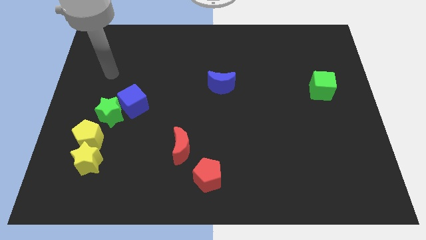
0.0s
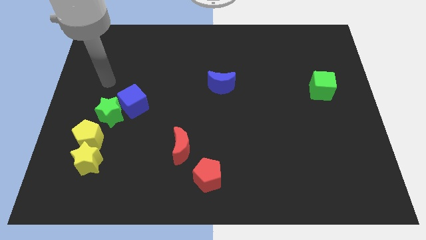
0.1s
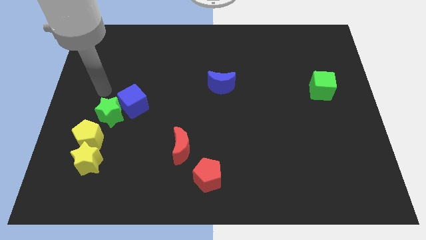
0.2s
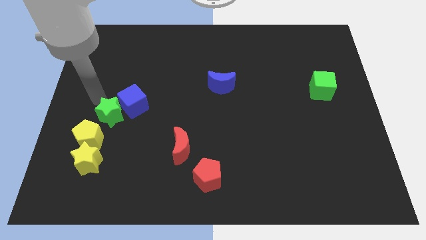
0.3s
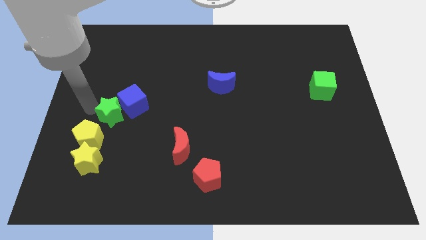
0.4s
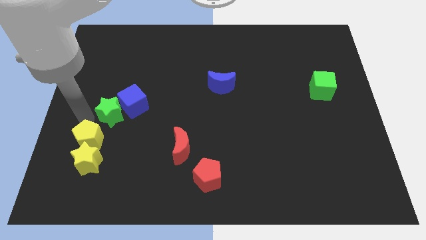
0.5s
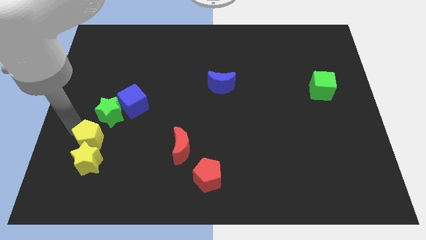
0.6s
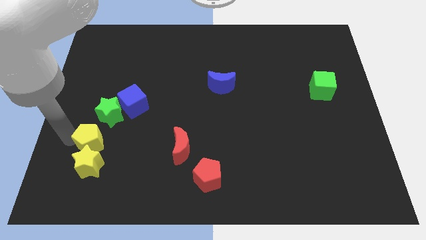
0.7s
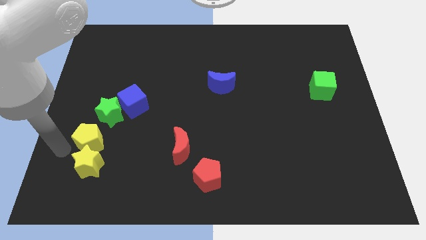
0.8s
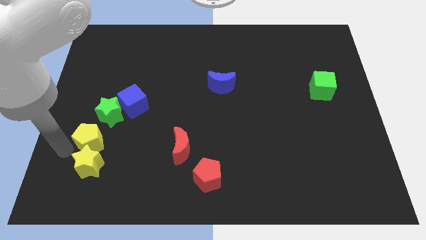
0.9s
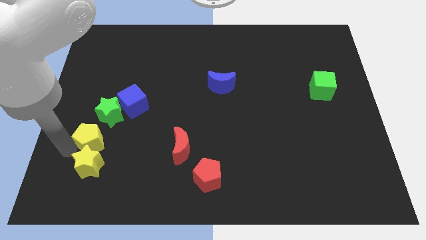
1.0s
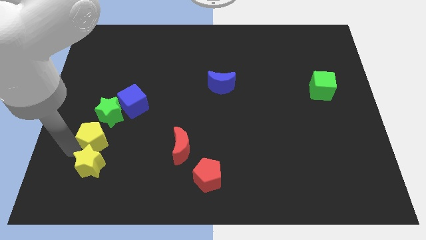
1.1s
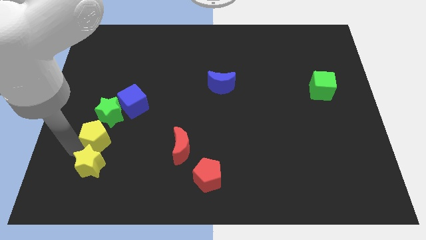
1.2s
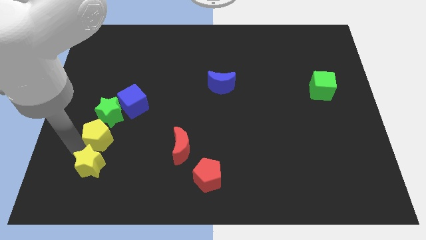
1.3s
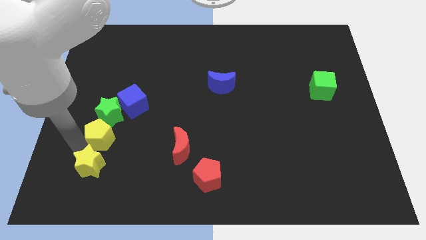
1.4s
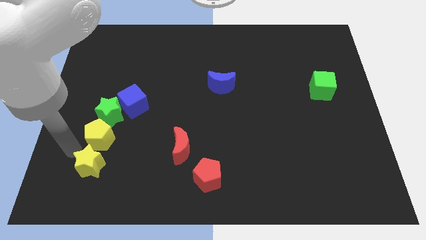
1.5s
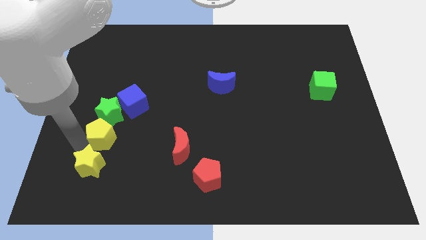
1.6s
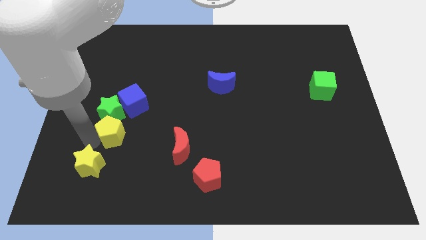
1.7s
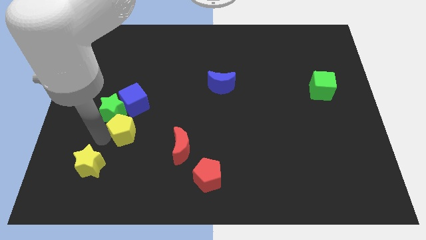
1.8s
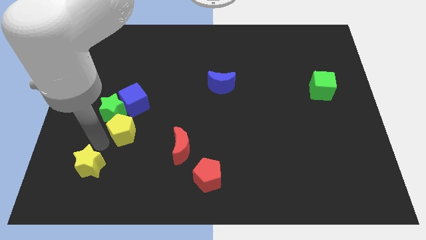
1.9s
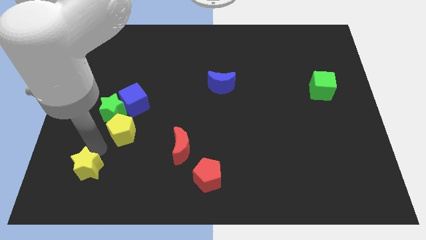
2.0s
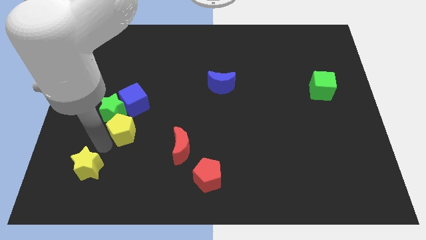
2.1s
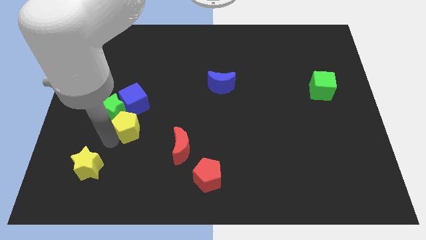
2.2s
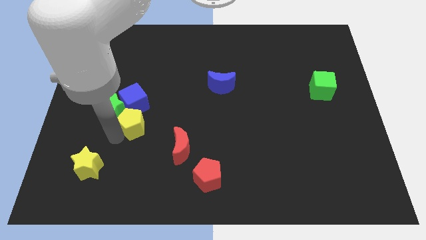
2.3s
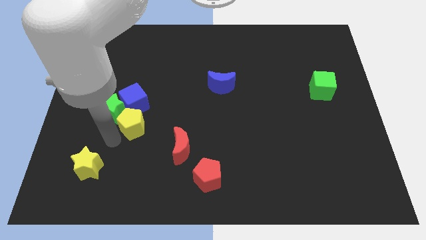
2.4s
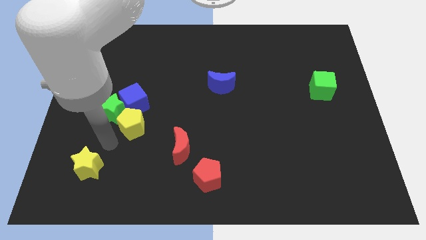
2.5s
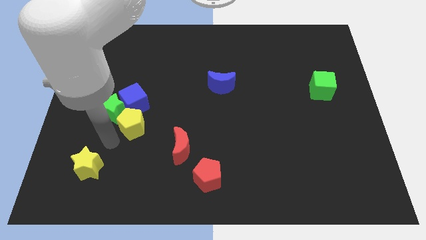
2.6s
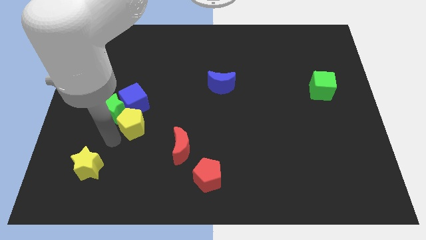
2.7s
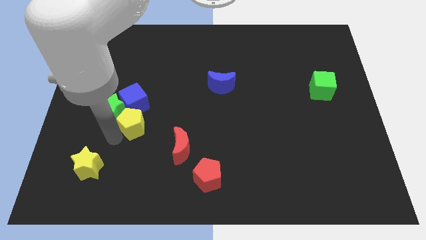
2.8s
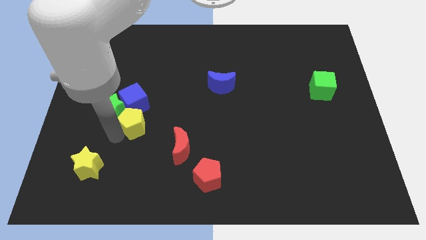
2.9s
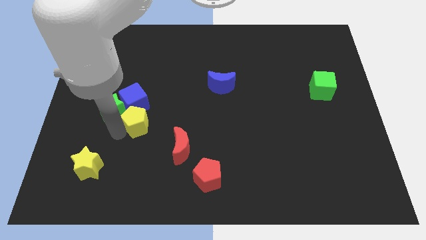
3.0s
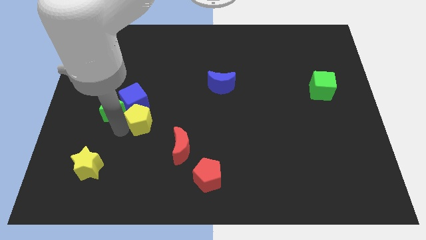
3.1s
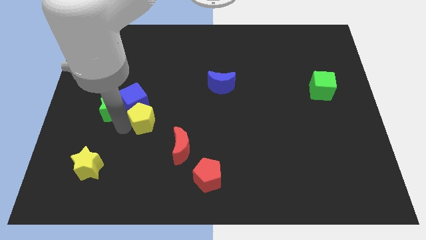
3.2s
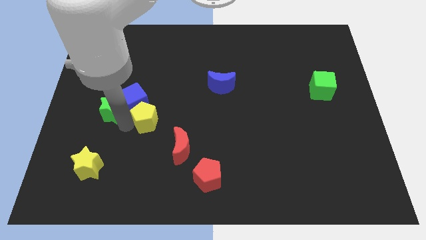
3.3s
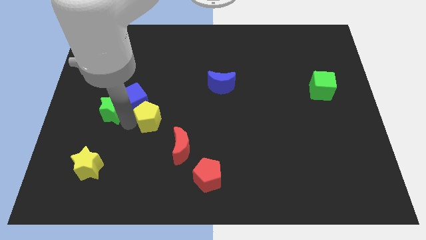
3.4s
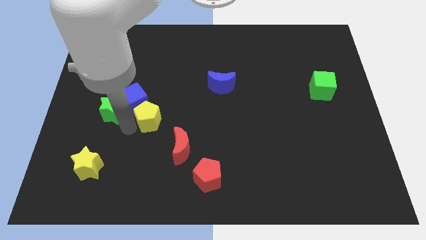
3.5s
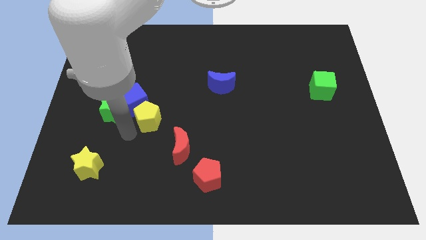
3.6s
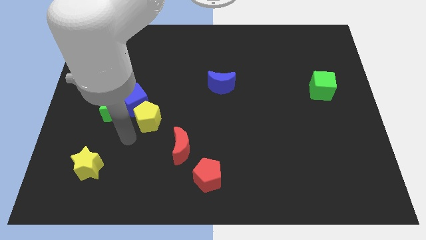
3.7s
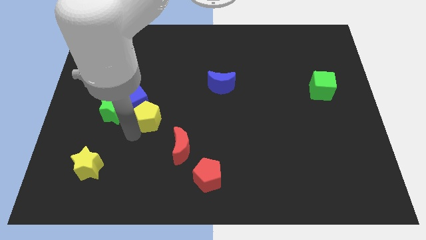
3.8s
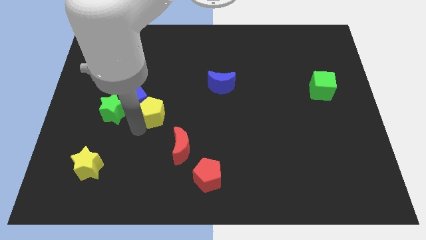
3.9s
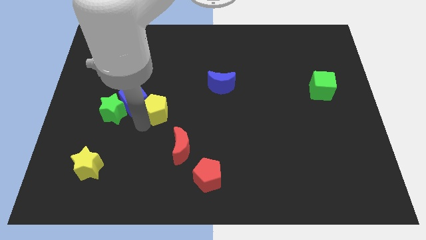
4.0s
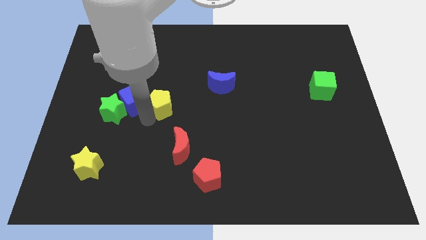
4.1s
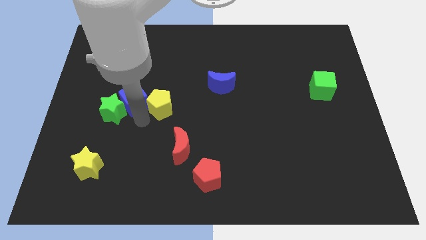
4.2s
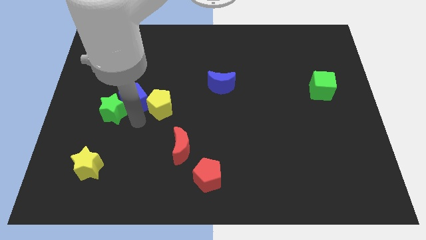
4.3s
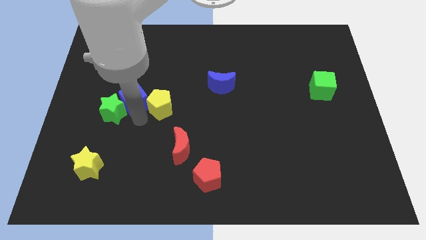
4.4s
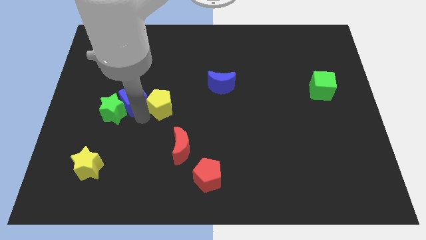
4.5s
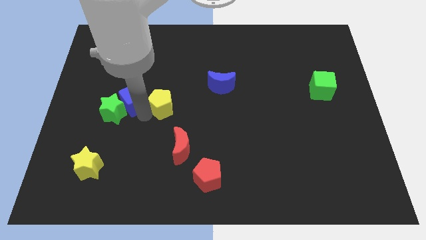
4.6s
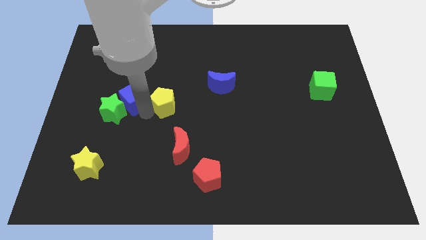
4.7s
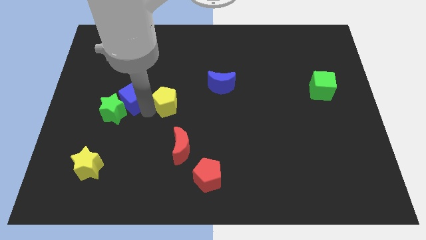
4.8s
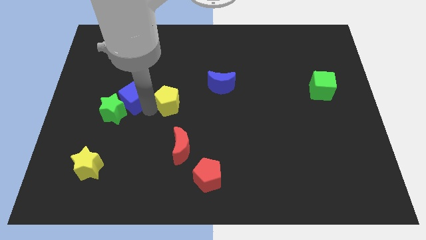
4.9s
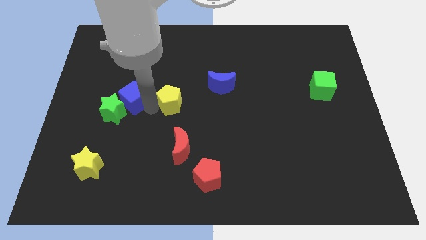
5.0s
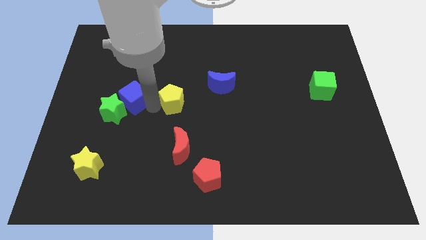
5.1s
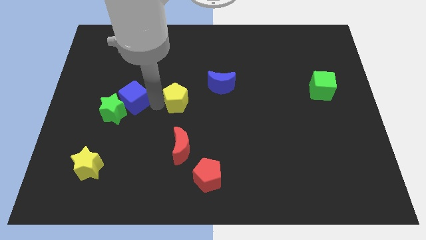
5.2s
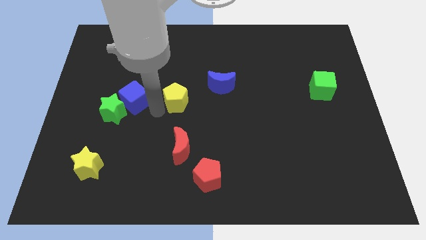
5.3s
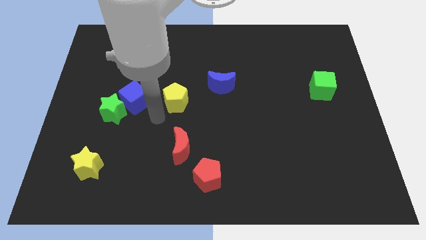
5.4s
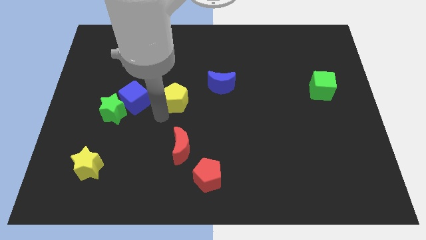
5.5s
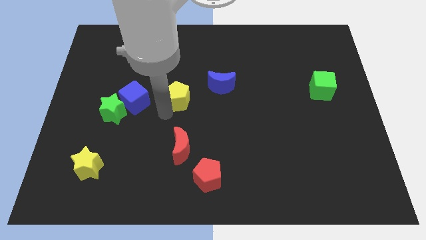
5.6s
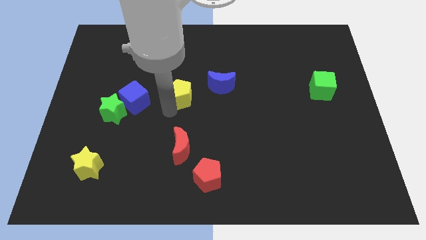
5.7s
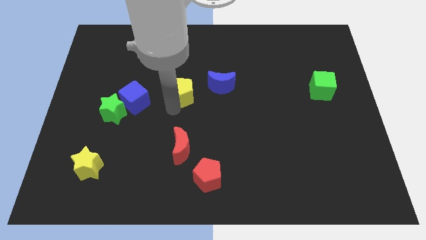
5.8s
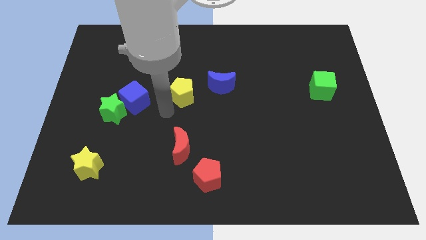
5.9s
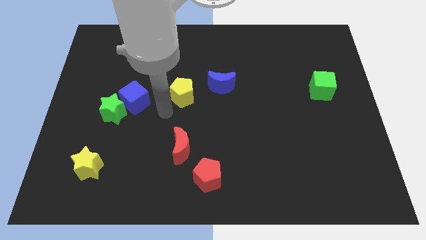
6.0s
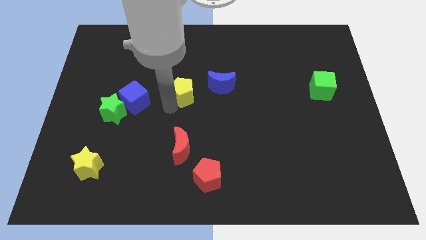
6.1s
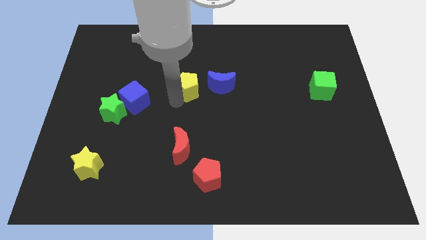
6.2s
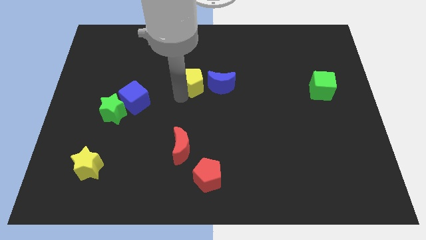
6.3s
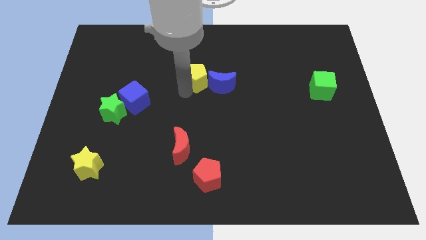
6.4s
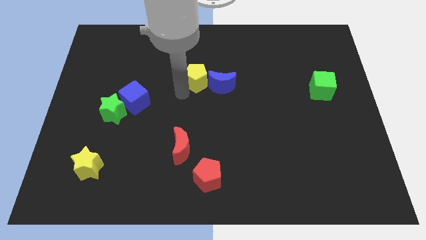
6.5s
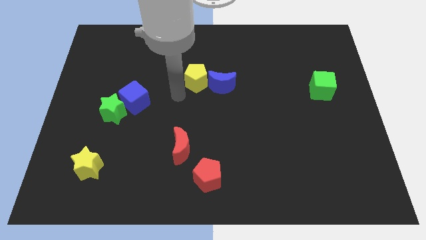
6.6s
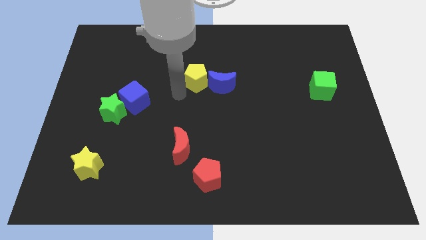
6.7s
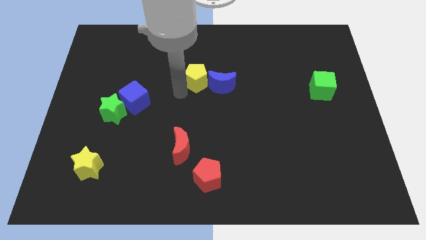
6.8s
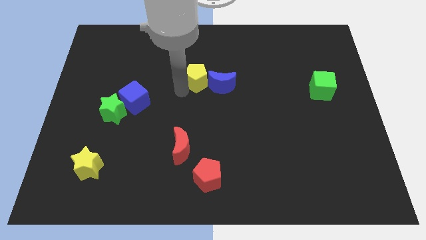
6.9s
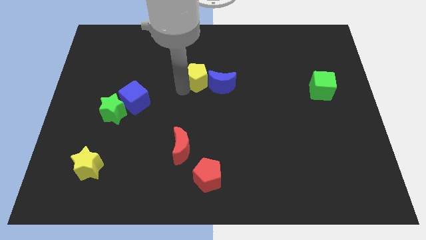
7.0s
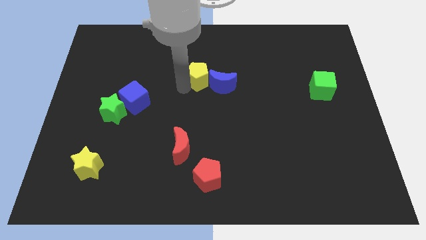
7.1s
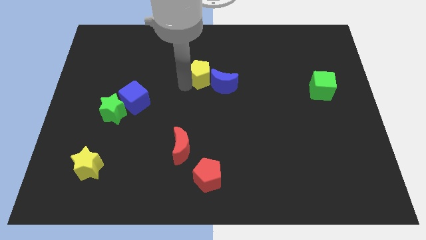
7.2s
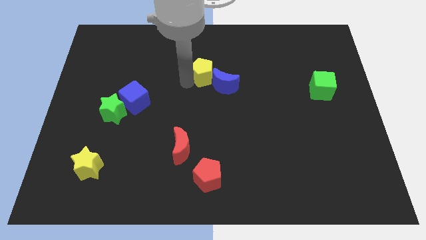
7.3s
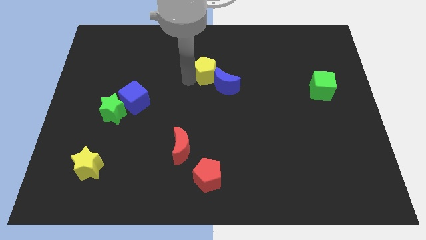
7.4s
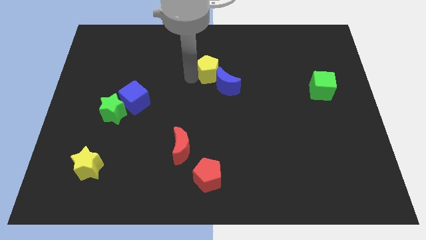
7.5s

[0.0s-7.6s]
put the yellow pentagon above the blue moon
